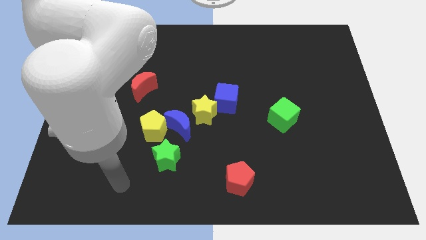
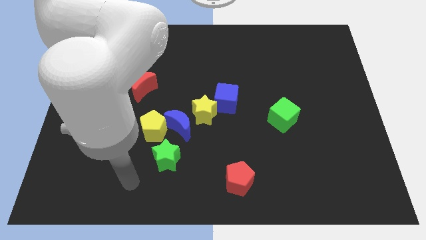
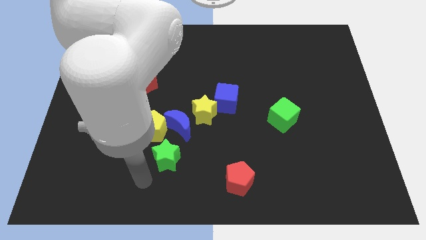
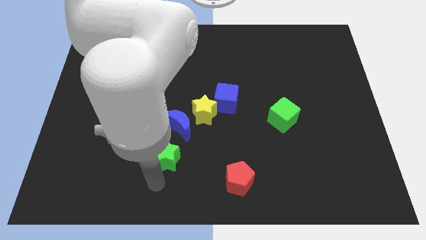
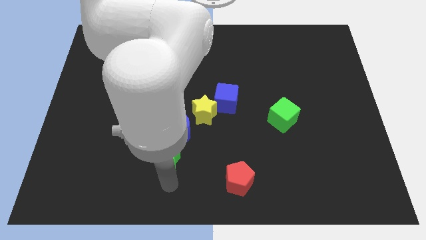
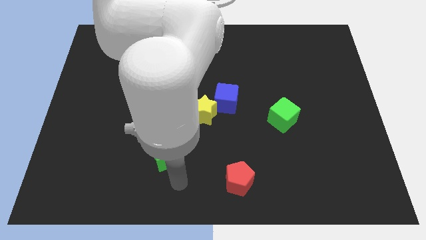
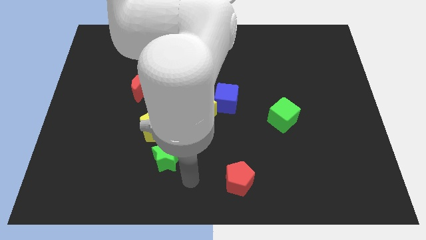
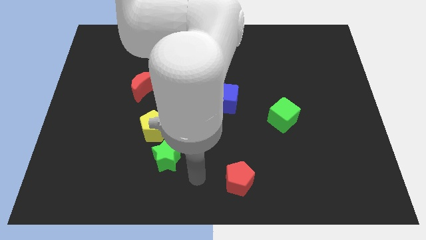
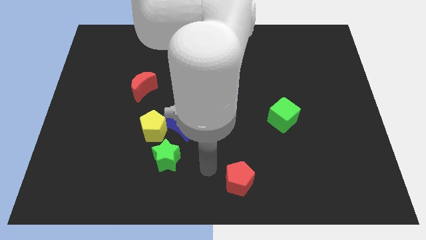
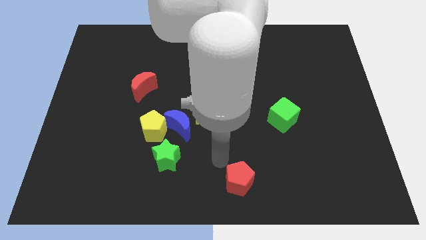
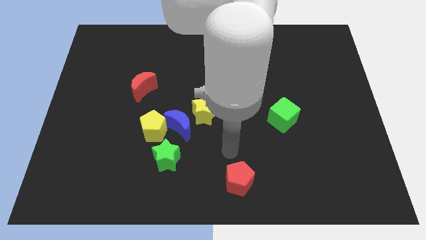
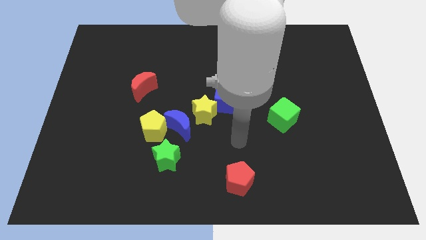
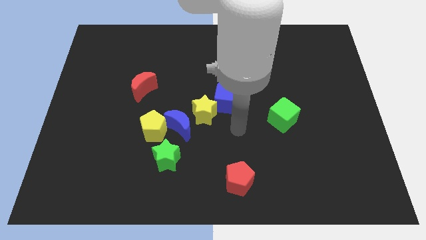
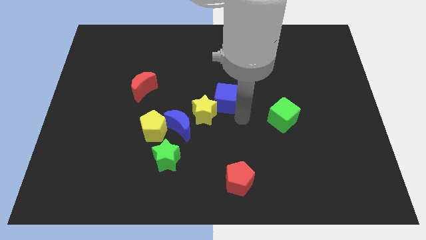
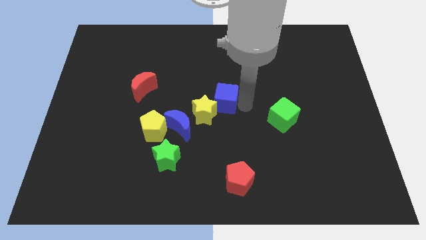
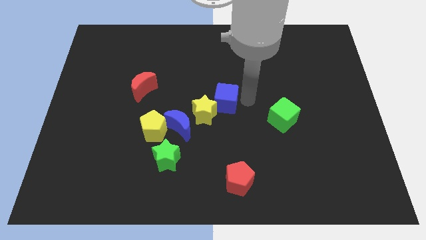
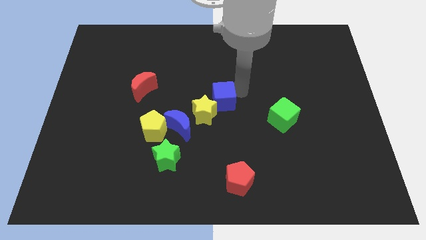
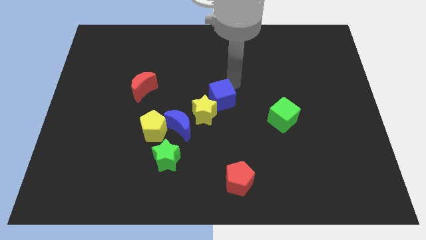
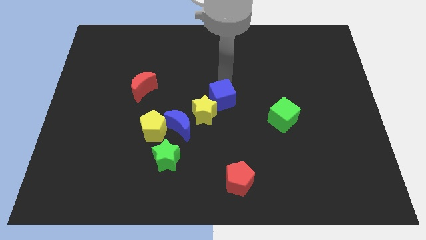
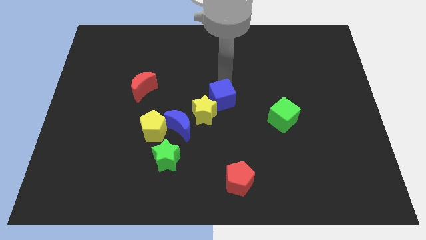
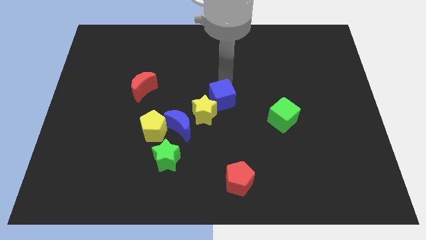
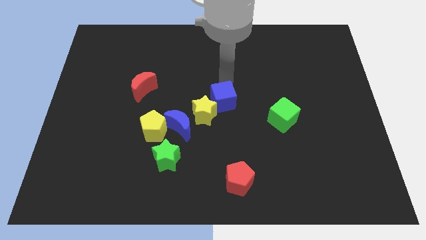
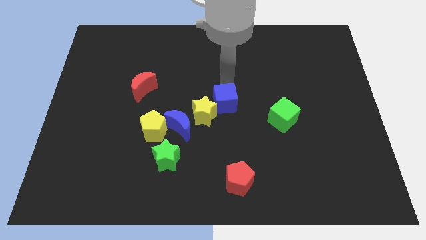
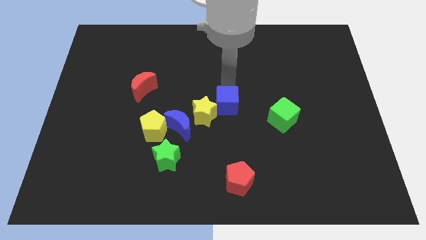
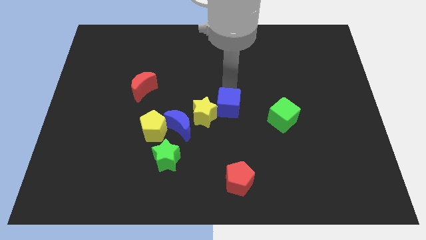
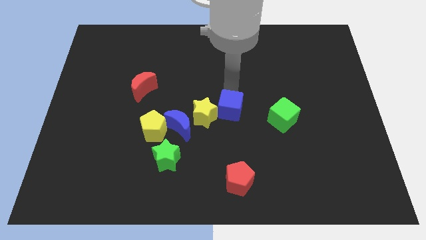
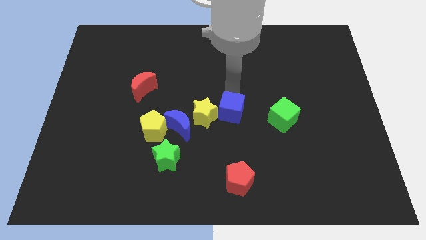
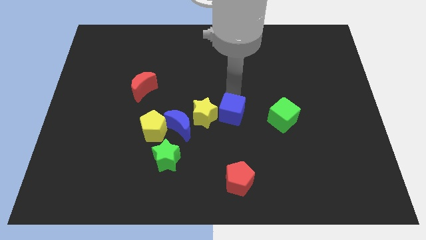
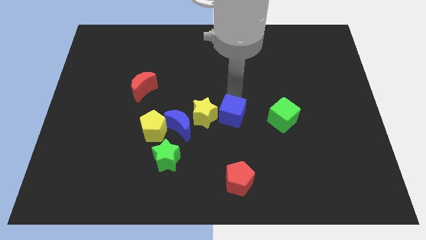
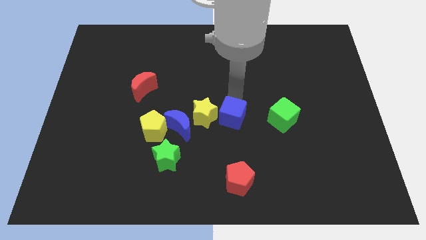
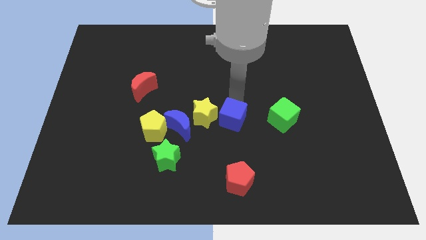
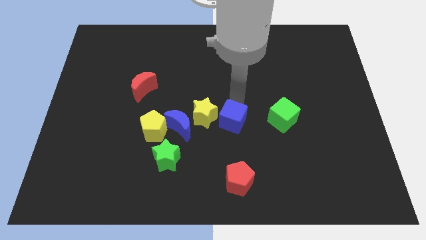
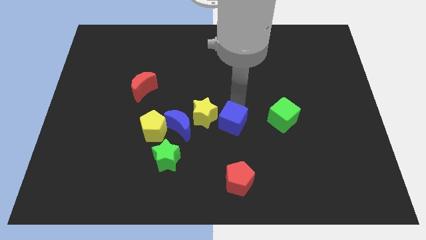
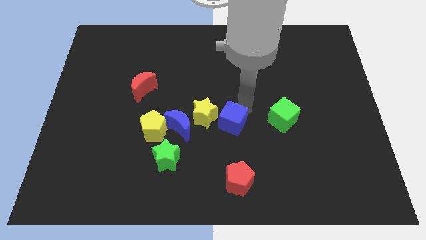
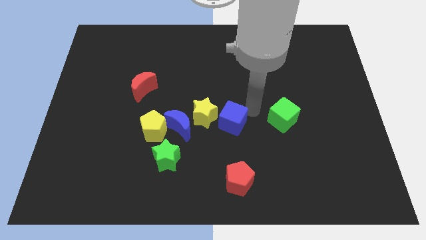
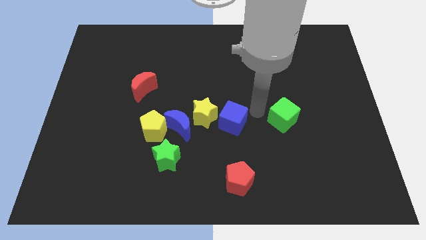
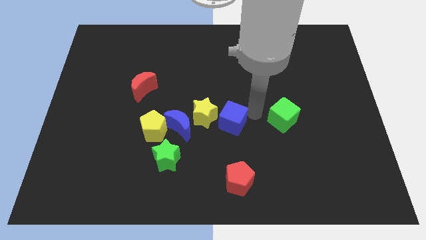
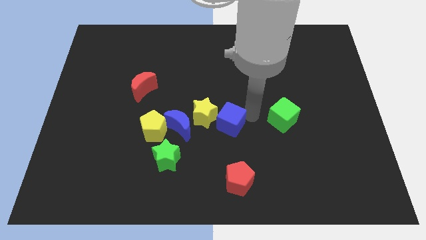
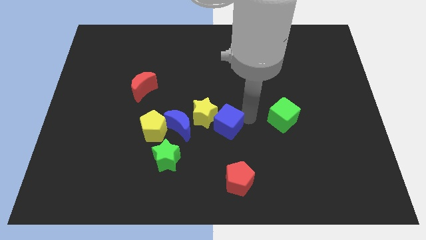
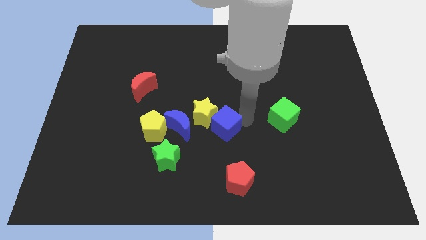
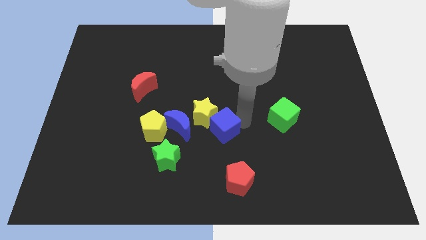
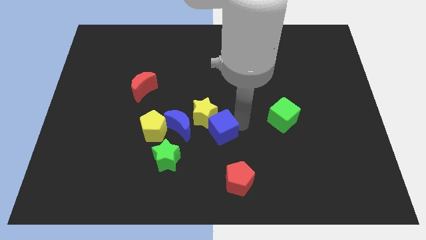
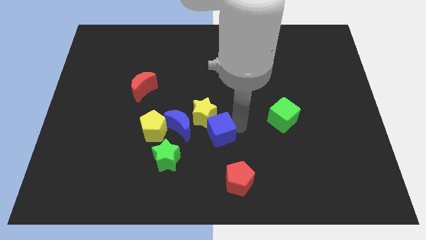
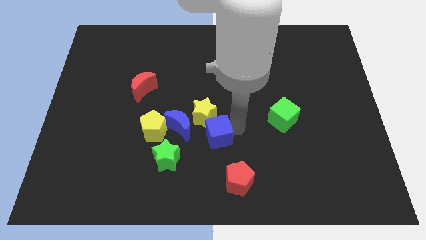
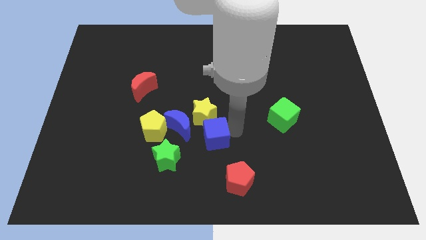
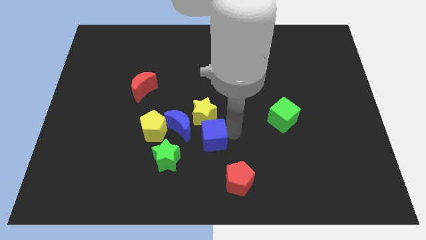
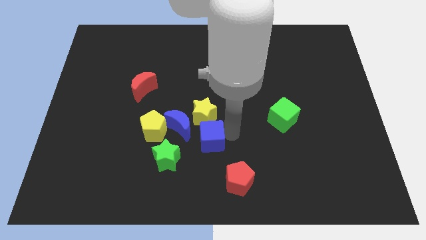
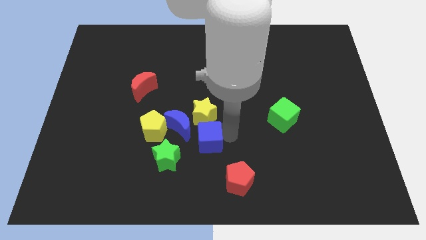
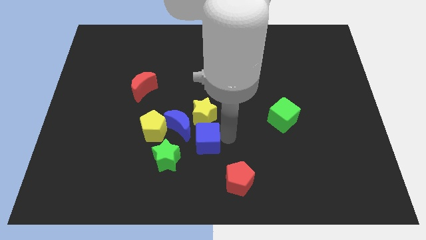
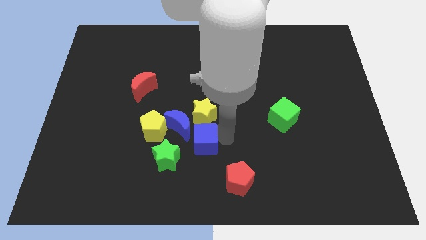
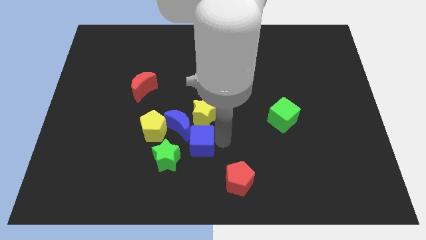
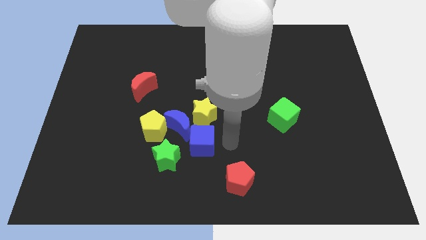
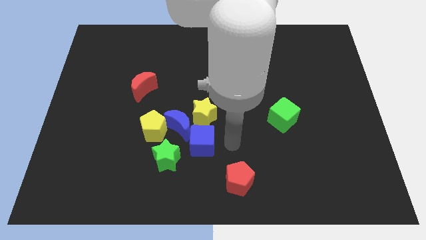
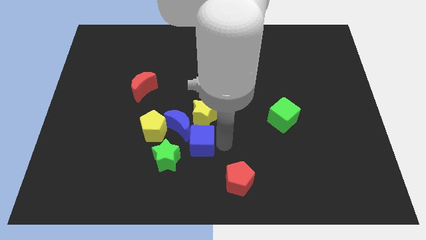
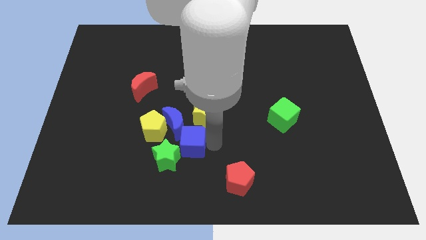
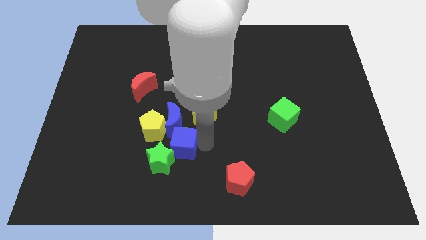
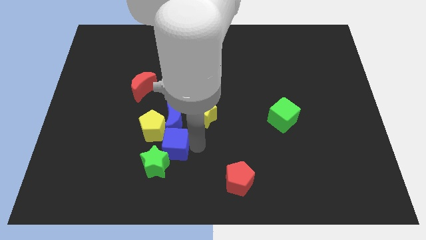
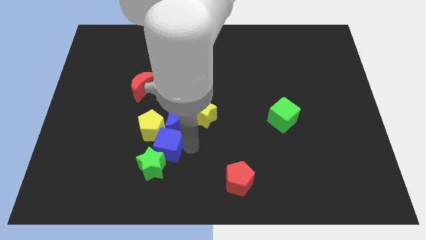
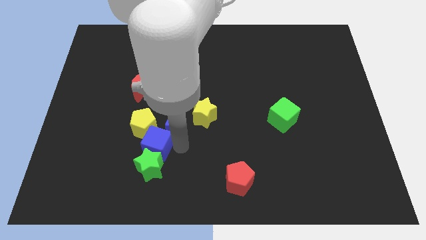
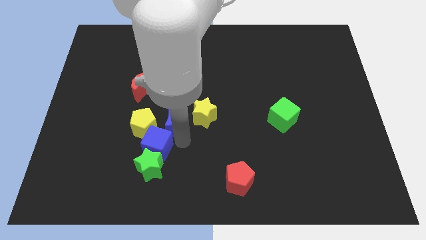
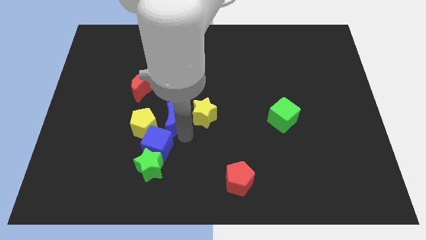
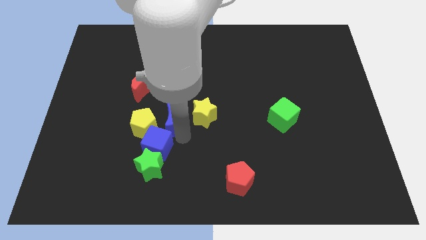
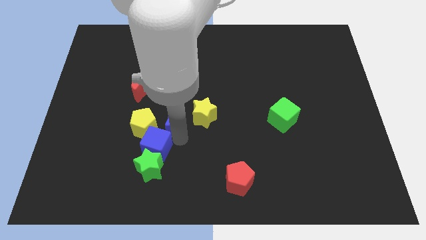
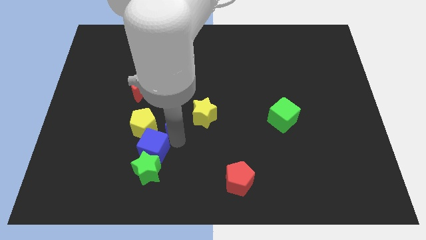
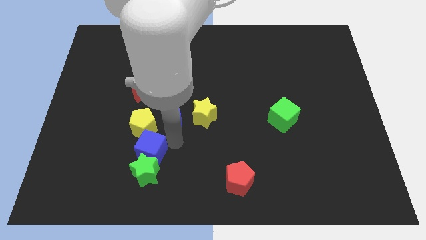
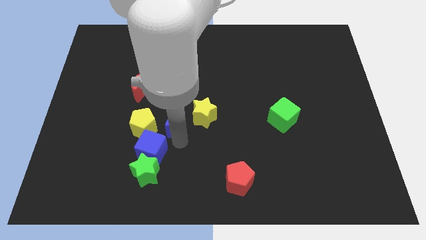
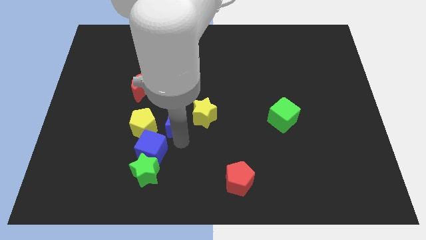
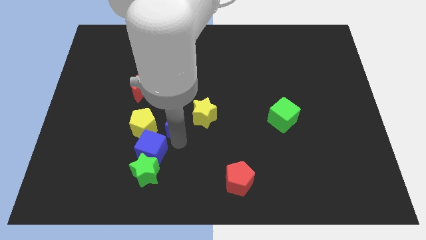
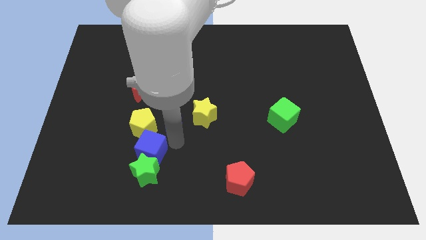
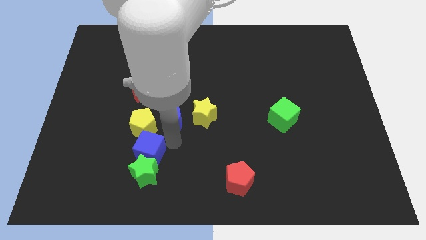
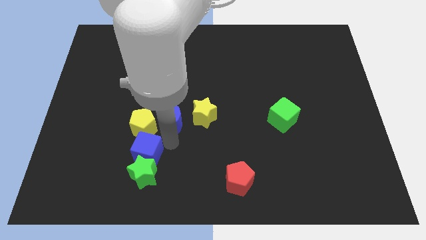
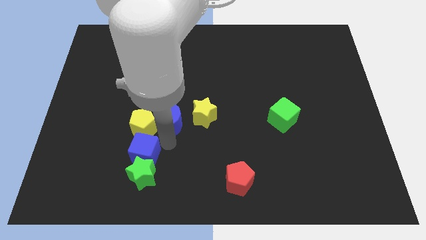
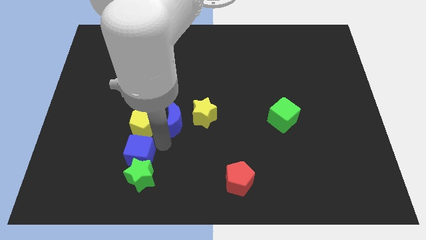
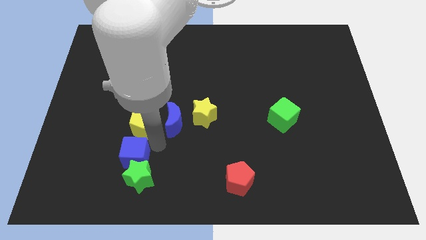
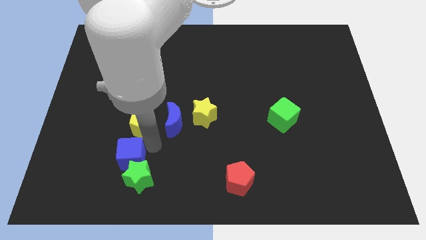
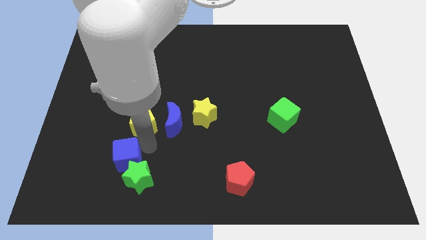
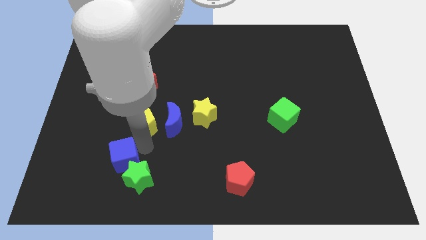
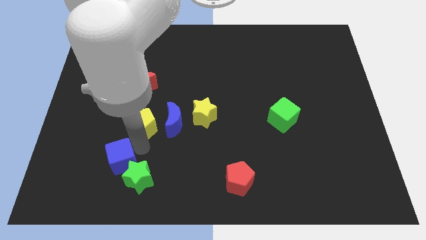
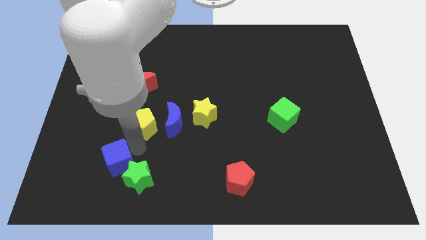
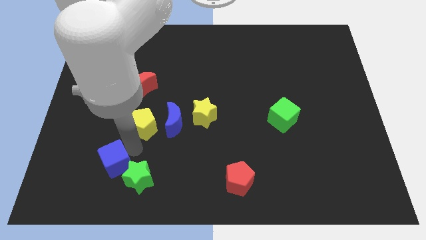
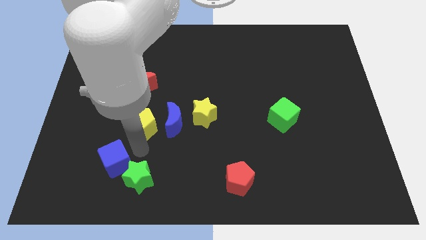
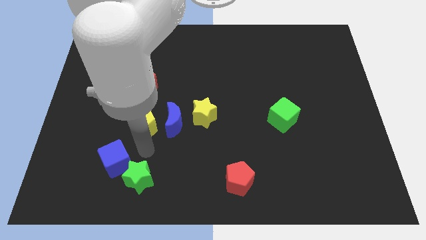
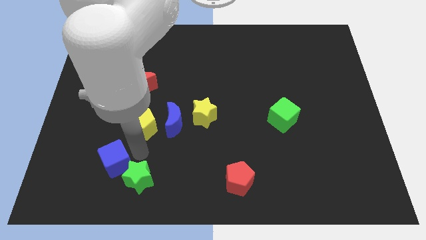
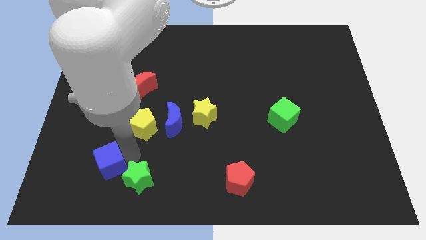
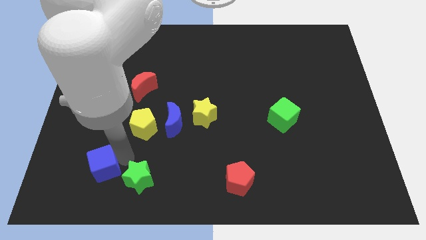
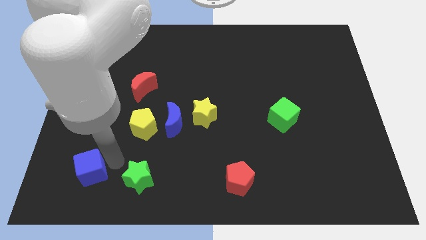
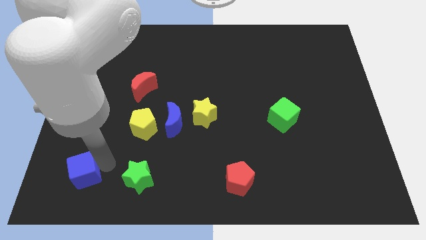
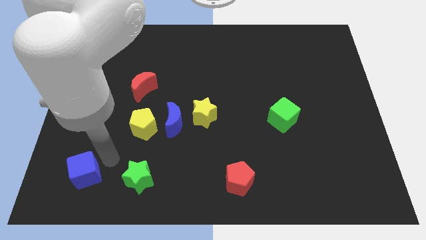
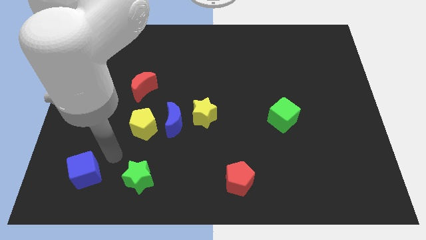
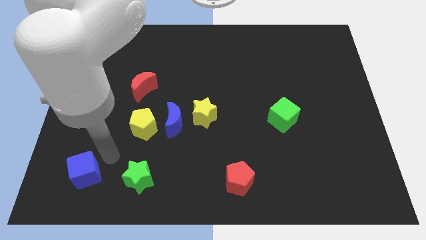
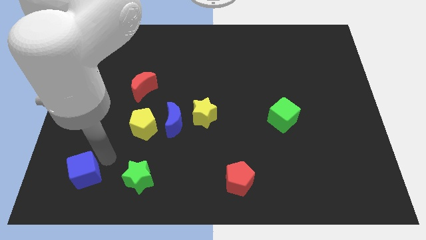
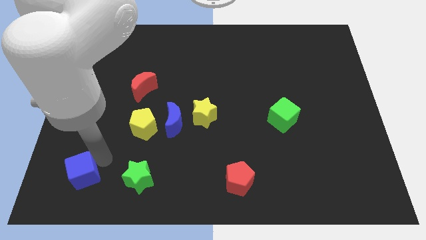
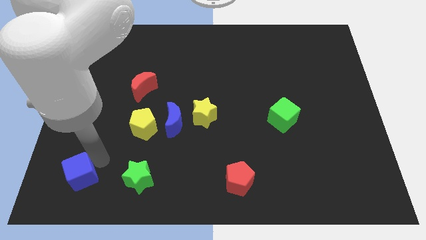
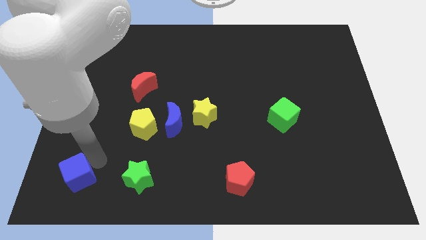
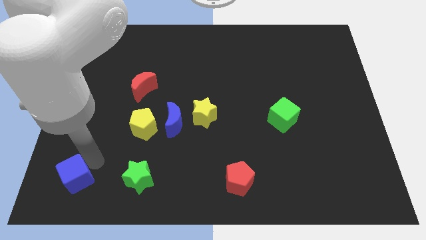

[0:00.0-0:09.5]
move the blue cube to the lower left corner
